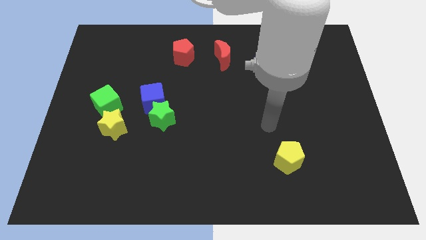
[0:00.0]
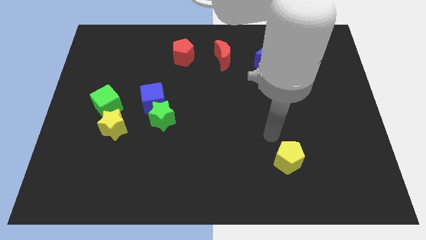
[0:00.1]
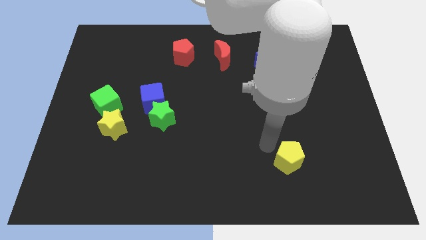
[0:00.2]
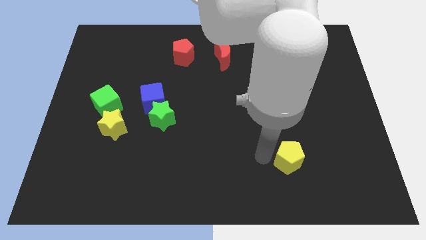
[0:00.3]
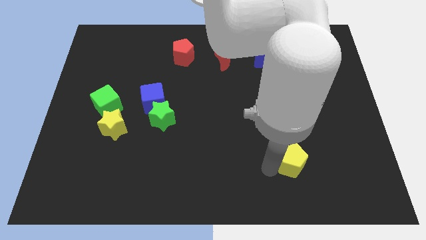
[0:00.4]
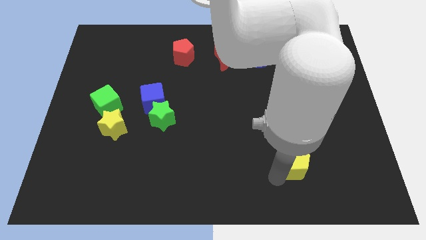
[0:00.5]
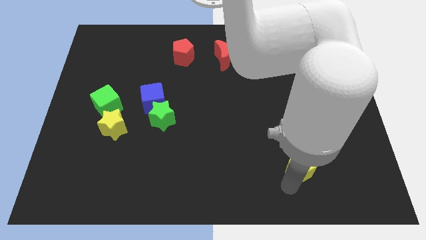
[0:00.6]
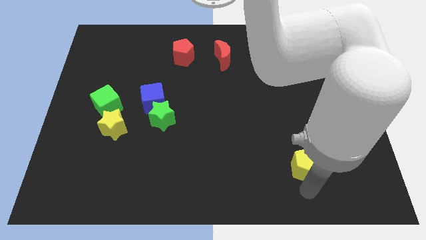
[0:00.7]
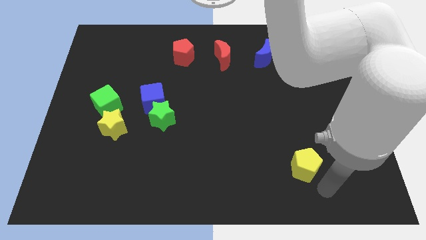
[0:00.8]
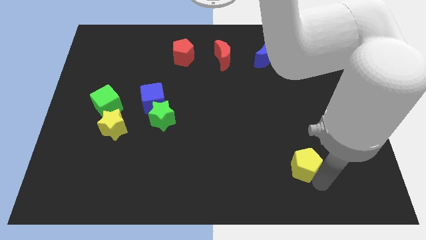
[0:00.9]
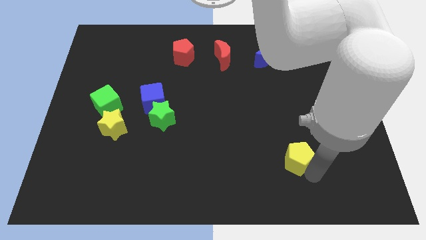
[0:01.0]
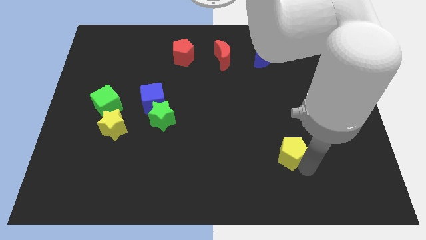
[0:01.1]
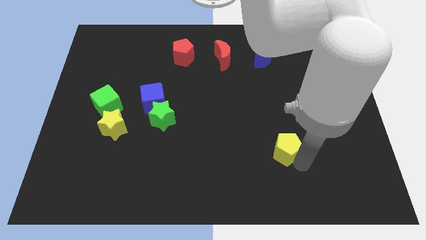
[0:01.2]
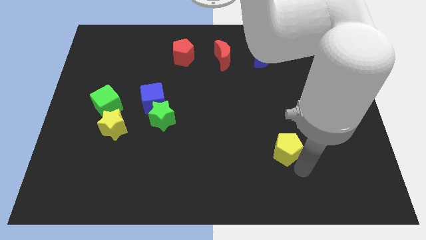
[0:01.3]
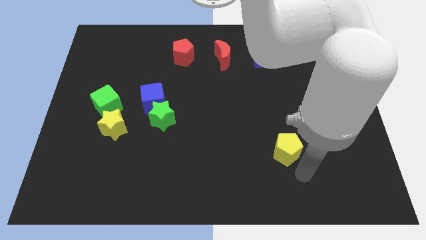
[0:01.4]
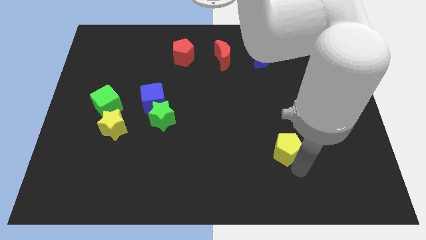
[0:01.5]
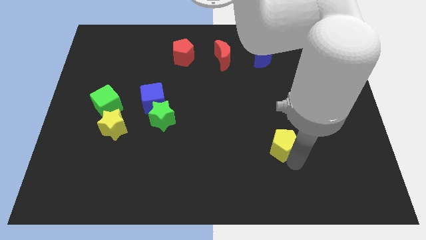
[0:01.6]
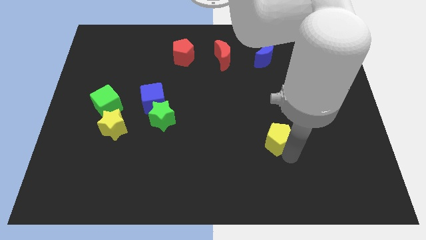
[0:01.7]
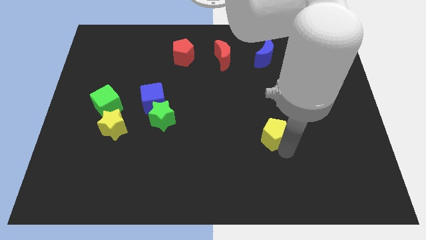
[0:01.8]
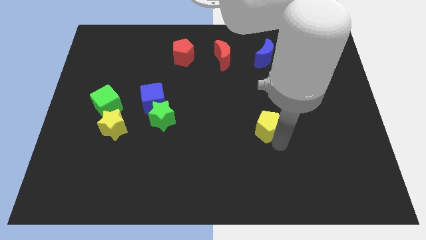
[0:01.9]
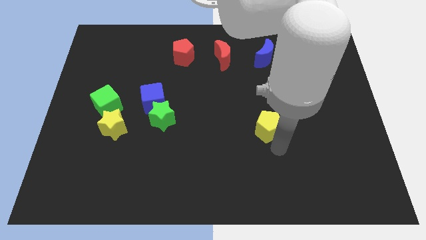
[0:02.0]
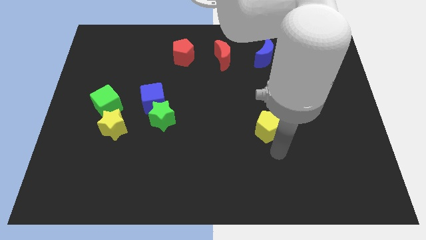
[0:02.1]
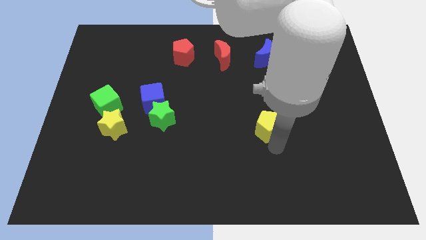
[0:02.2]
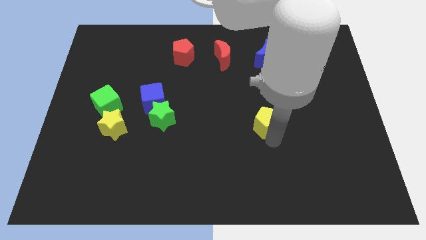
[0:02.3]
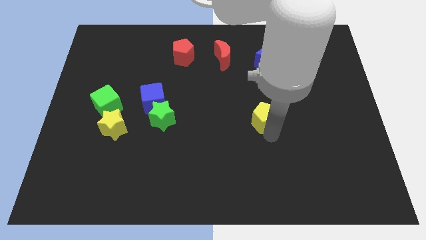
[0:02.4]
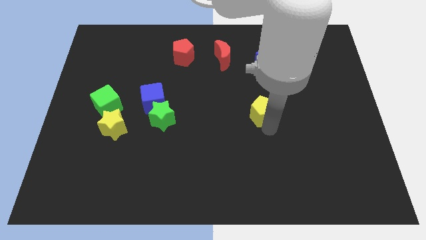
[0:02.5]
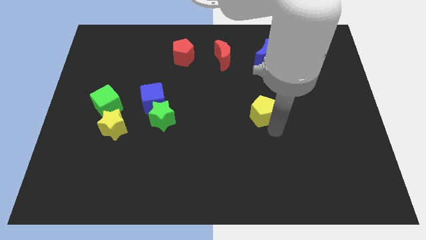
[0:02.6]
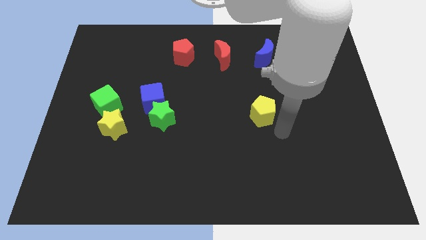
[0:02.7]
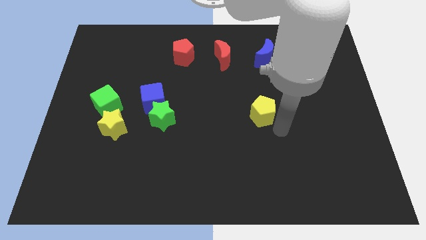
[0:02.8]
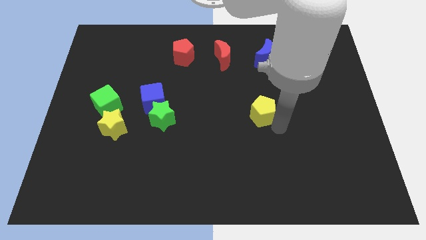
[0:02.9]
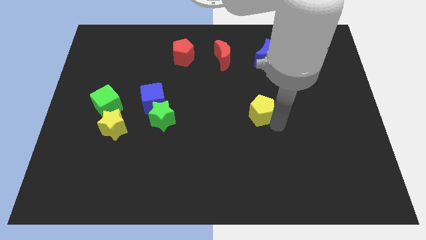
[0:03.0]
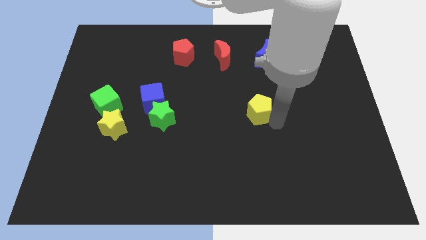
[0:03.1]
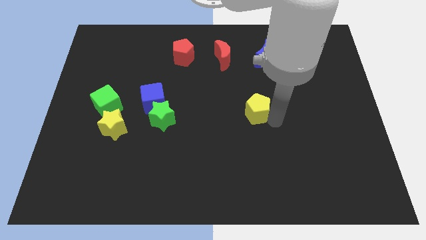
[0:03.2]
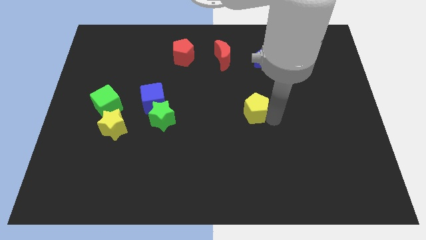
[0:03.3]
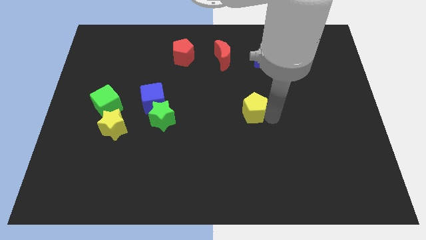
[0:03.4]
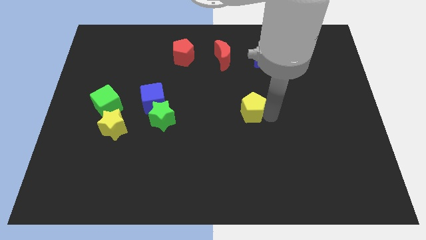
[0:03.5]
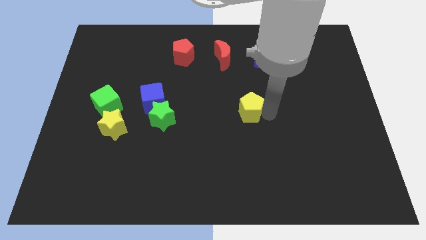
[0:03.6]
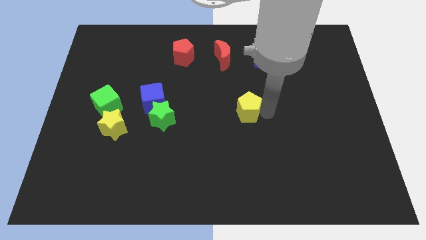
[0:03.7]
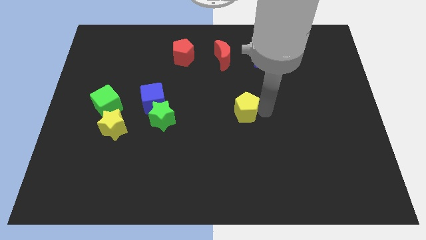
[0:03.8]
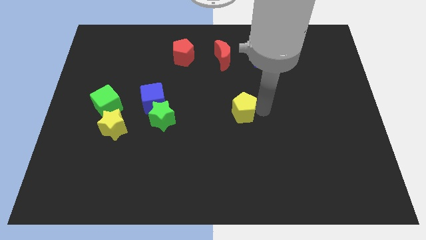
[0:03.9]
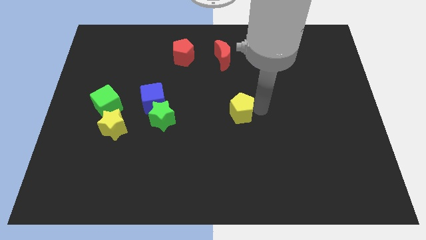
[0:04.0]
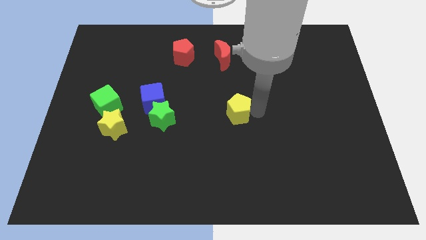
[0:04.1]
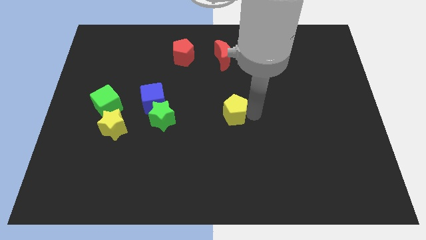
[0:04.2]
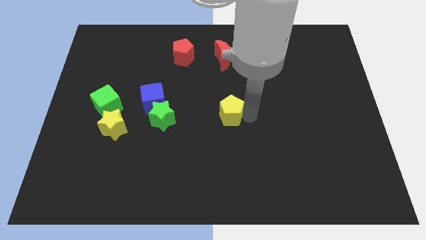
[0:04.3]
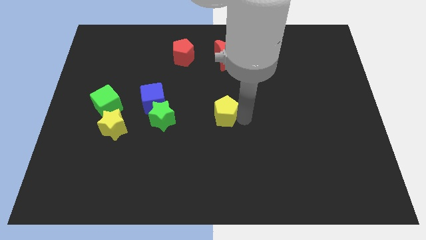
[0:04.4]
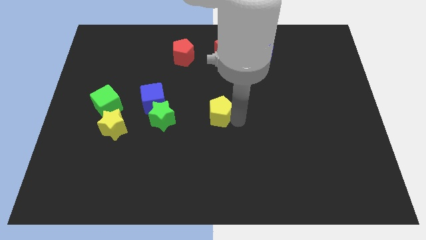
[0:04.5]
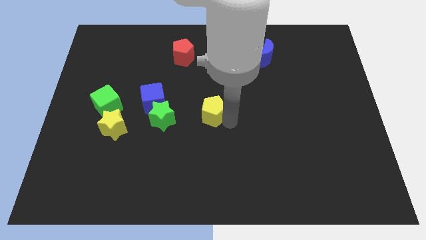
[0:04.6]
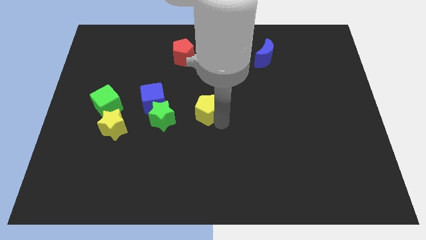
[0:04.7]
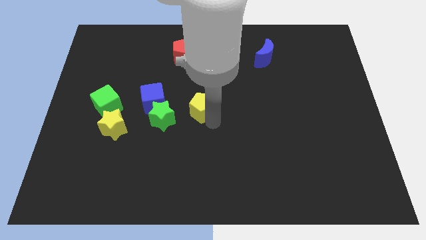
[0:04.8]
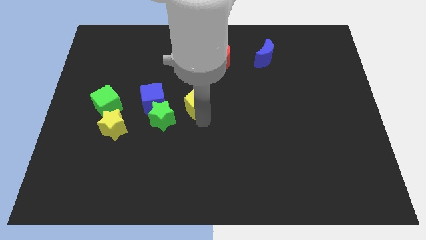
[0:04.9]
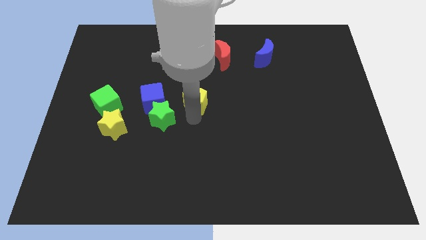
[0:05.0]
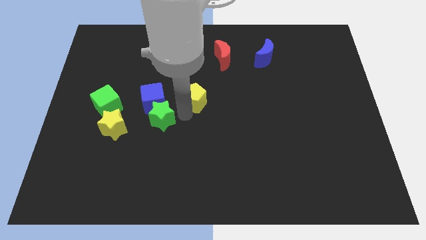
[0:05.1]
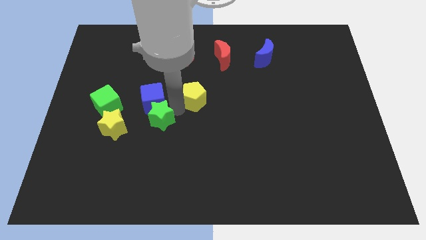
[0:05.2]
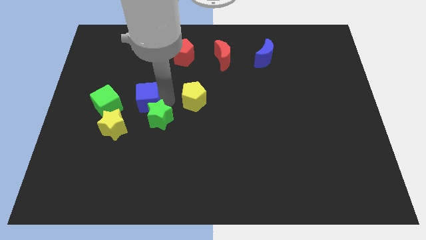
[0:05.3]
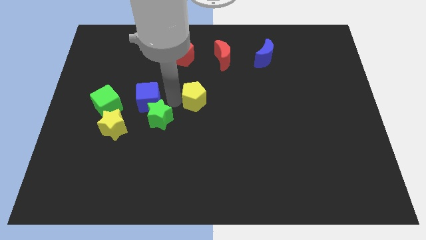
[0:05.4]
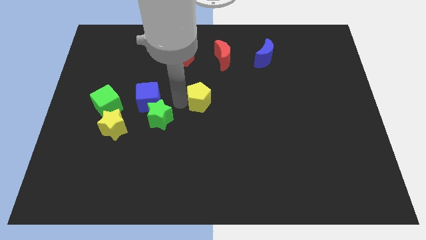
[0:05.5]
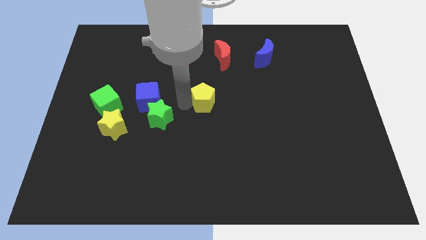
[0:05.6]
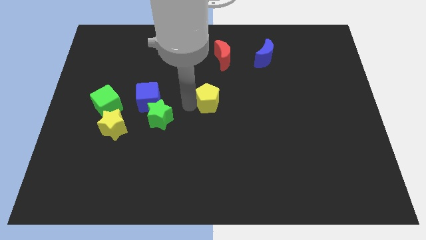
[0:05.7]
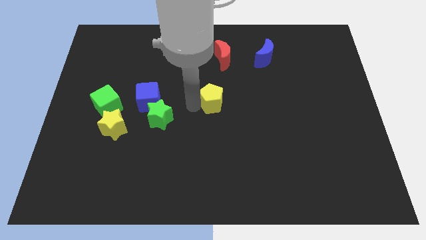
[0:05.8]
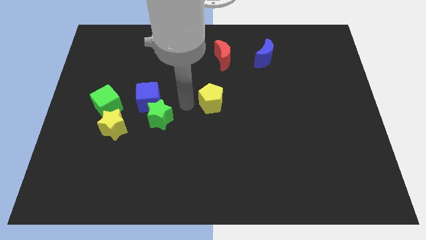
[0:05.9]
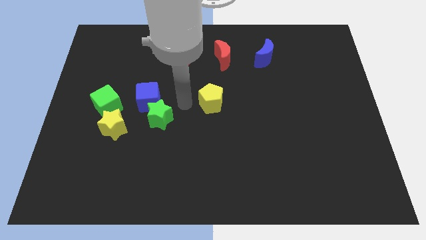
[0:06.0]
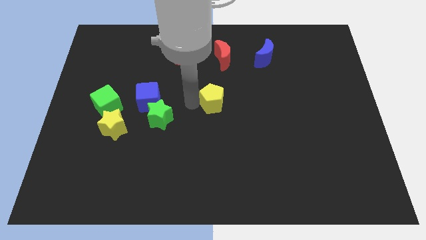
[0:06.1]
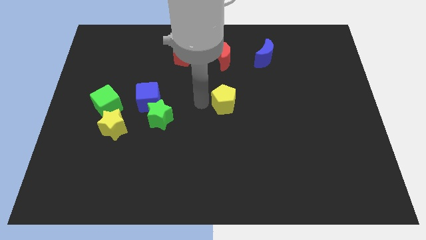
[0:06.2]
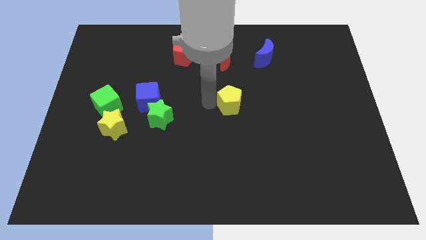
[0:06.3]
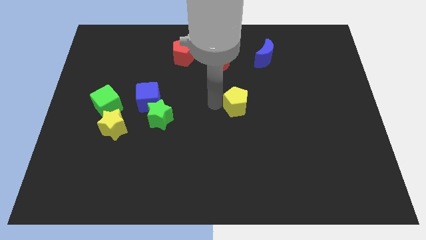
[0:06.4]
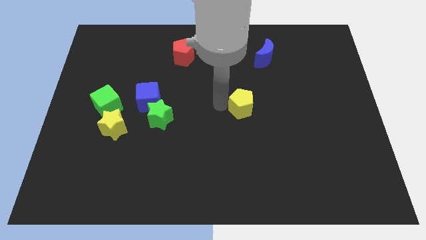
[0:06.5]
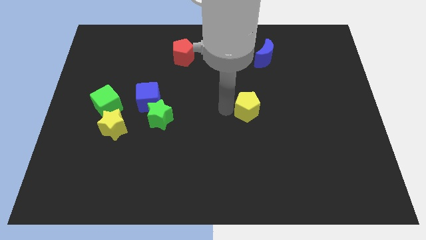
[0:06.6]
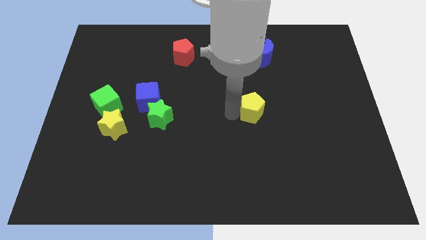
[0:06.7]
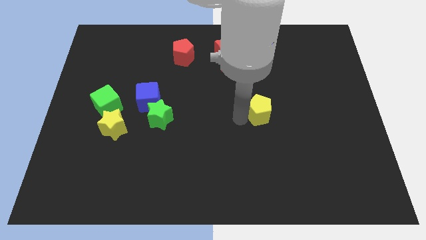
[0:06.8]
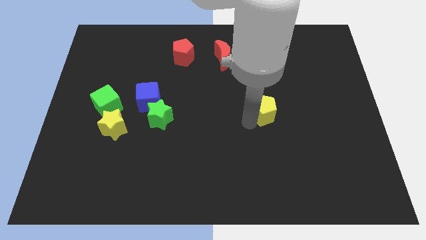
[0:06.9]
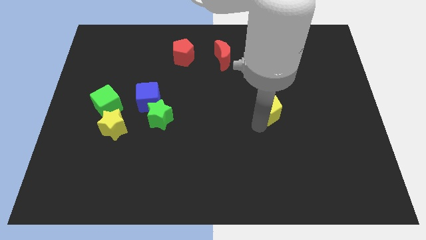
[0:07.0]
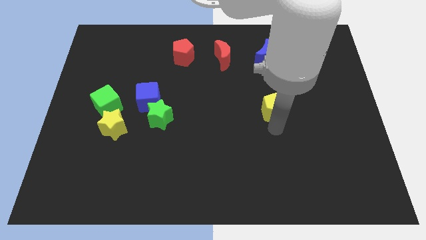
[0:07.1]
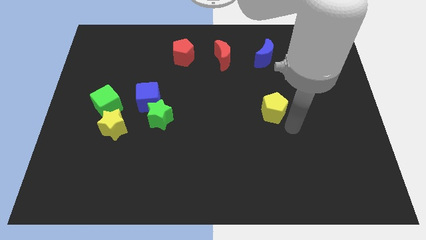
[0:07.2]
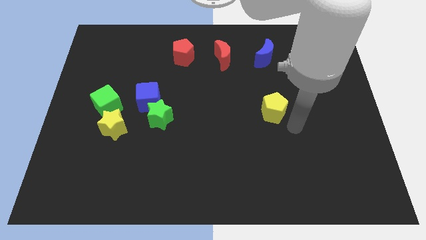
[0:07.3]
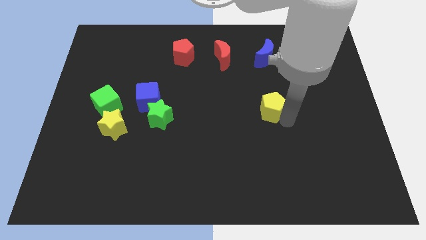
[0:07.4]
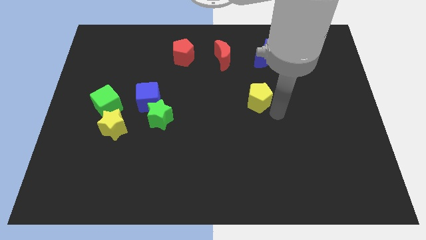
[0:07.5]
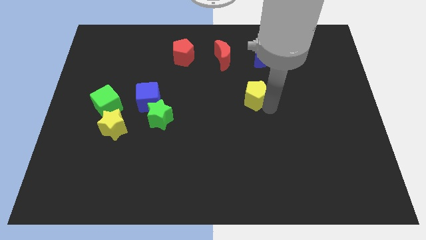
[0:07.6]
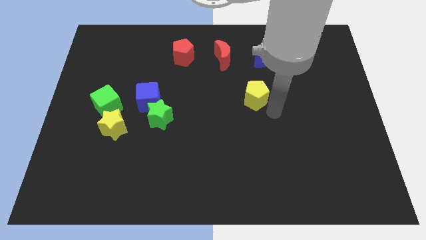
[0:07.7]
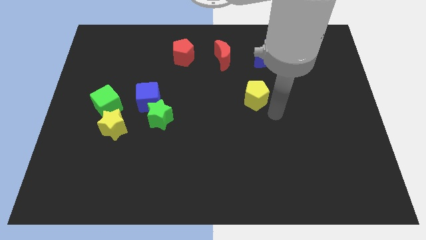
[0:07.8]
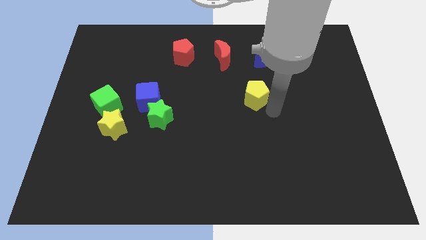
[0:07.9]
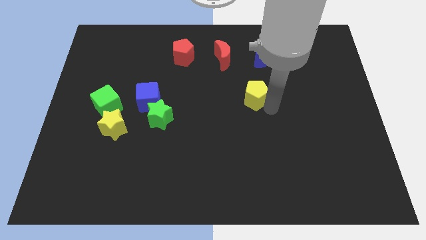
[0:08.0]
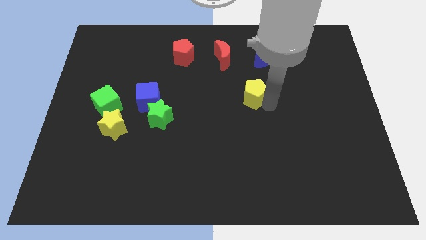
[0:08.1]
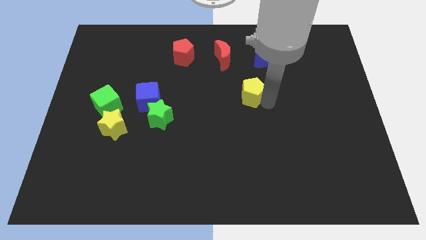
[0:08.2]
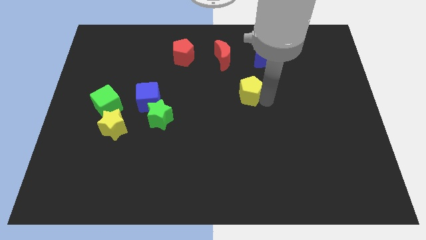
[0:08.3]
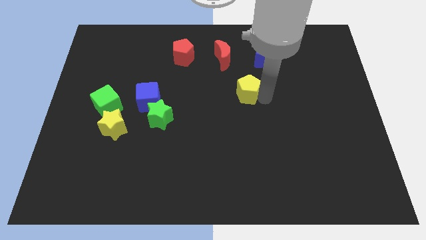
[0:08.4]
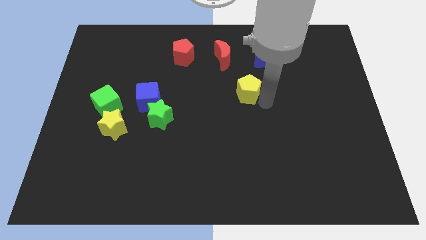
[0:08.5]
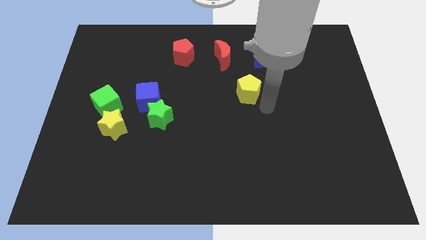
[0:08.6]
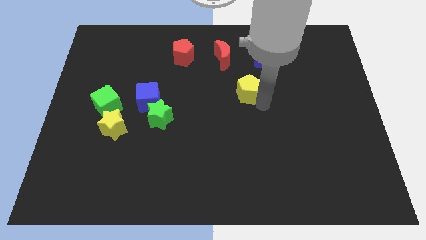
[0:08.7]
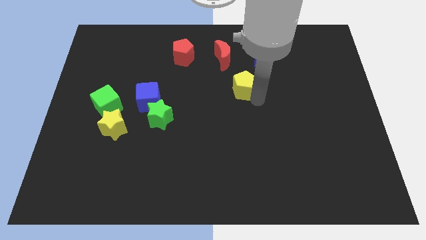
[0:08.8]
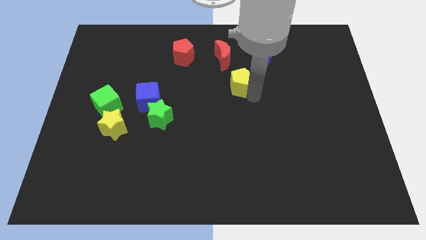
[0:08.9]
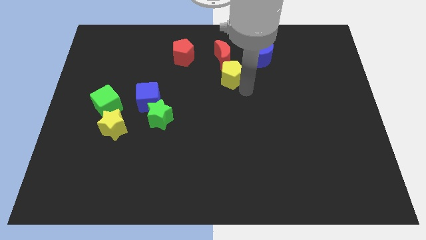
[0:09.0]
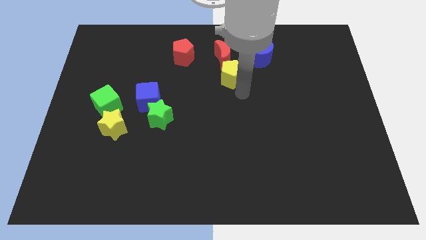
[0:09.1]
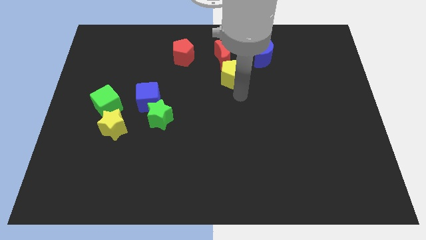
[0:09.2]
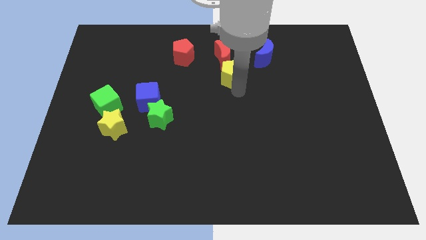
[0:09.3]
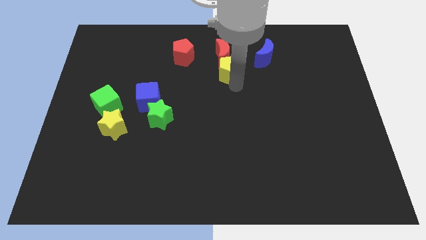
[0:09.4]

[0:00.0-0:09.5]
put the yellow pentagon close to the red moon
